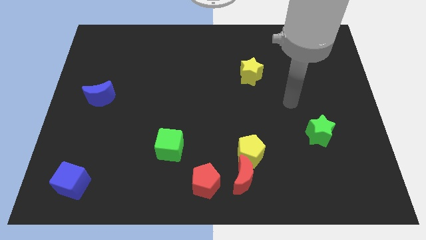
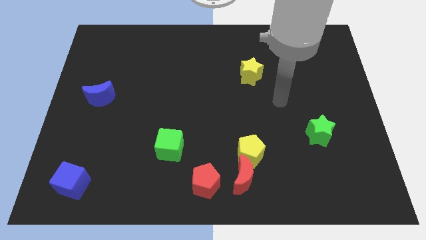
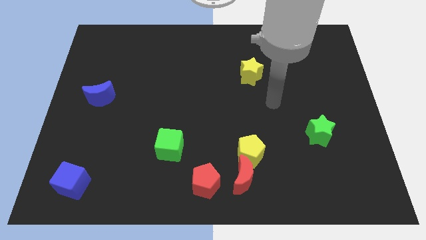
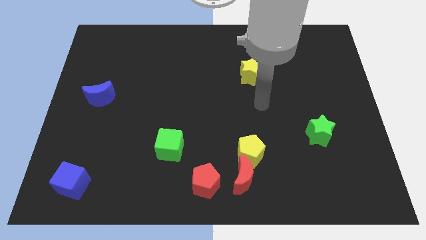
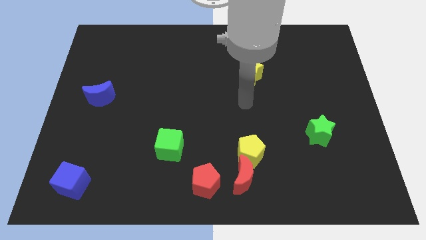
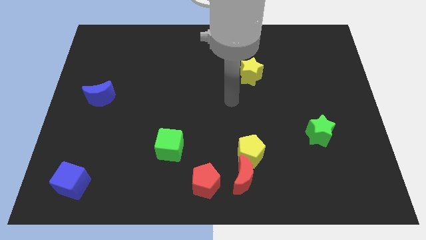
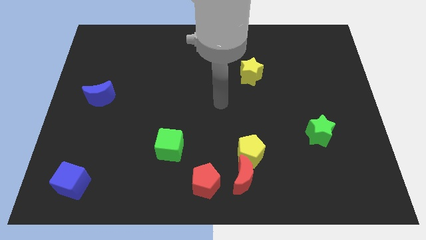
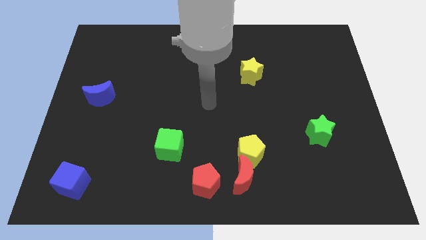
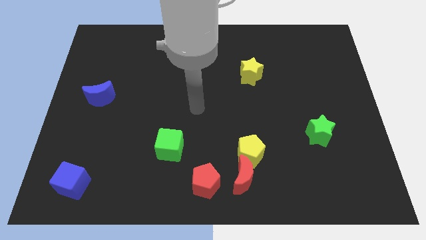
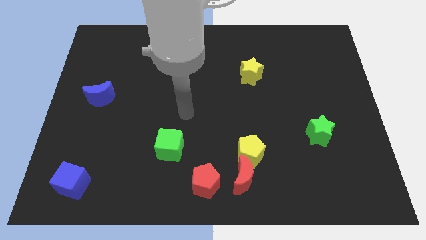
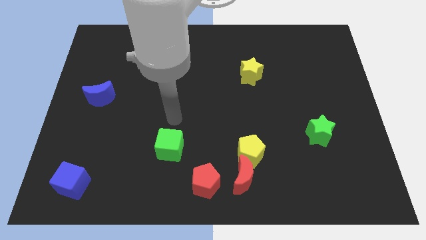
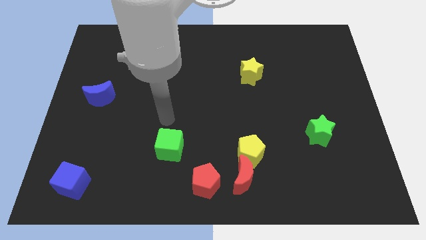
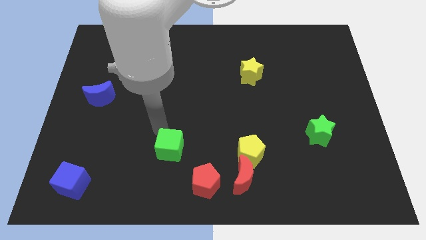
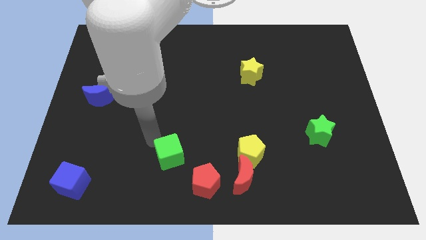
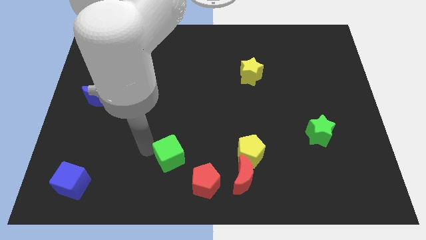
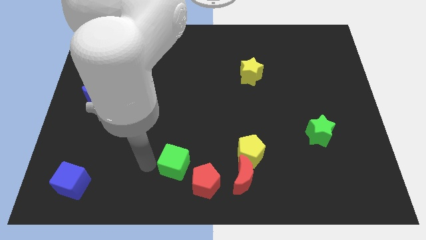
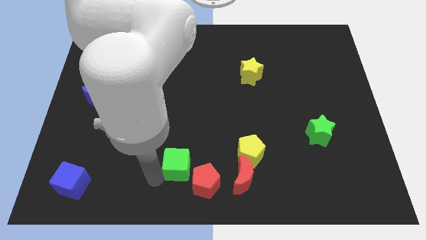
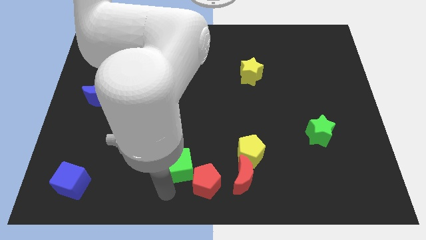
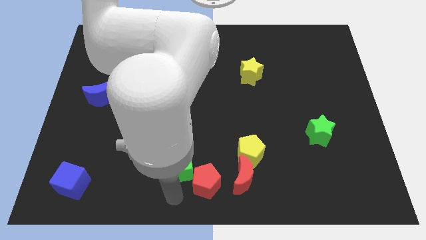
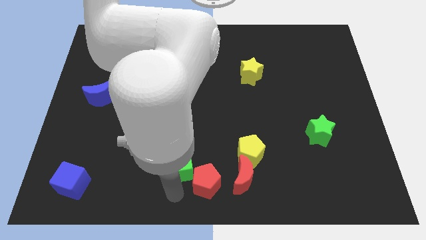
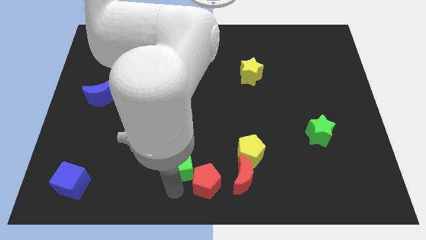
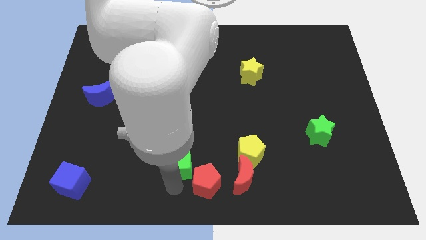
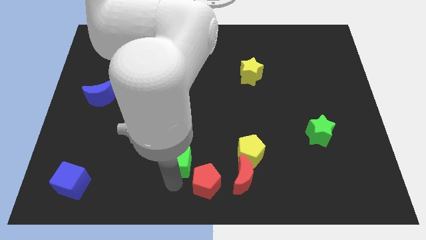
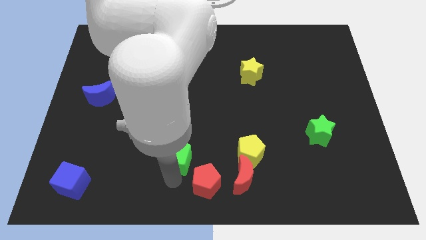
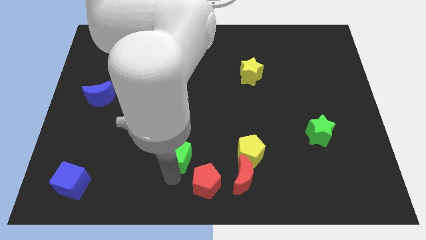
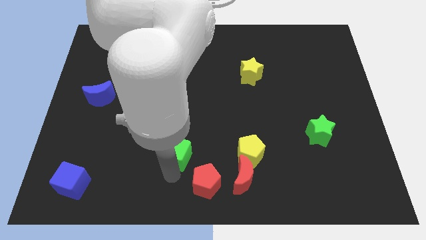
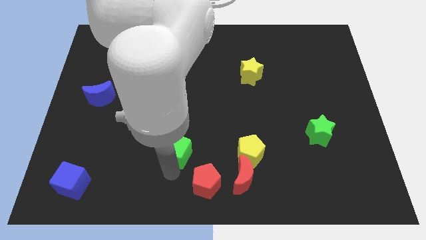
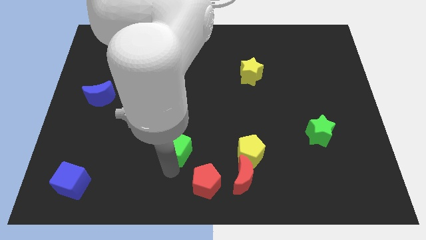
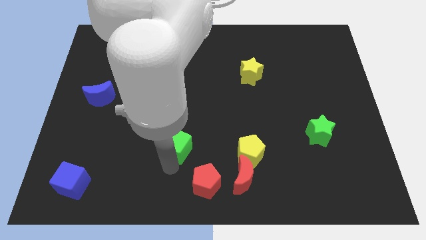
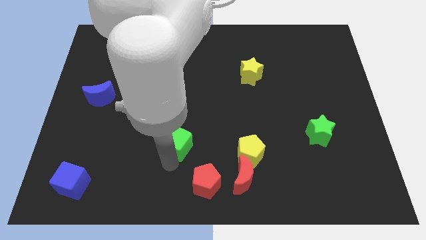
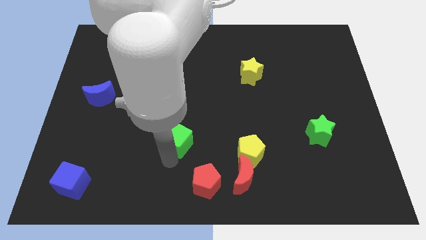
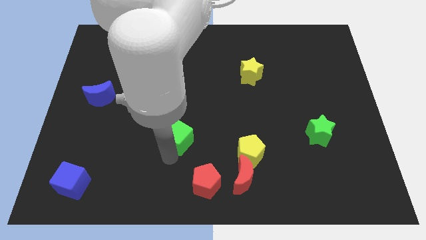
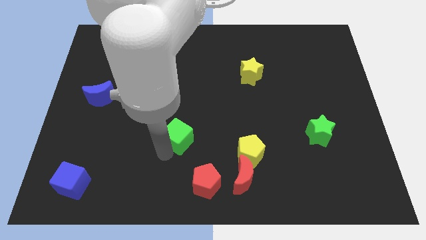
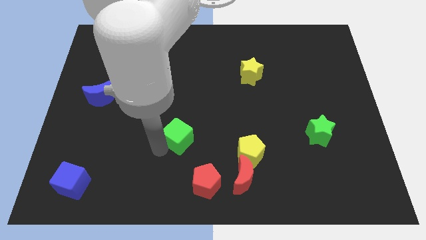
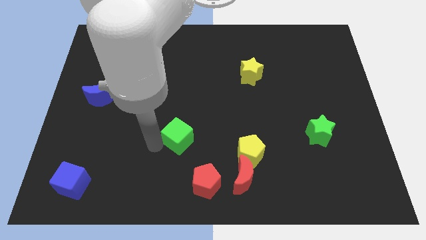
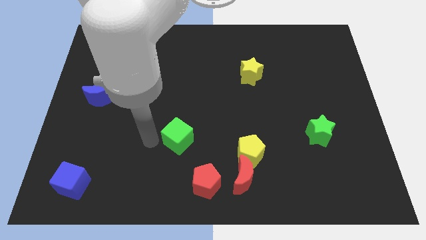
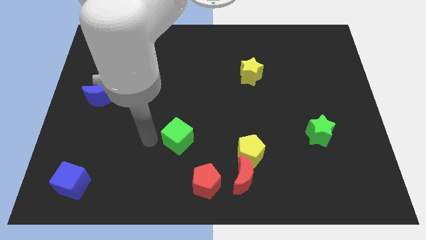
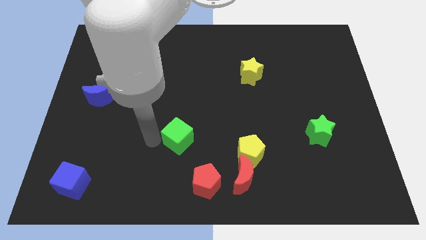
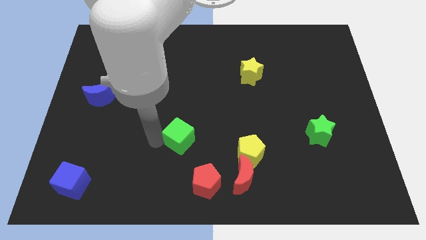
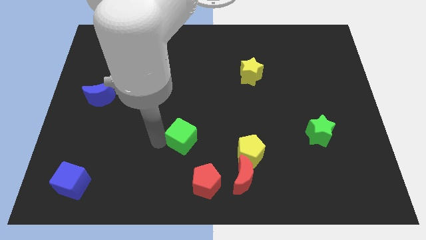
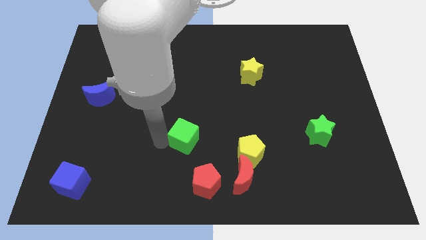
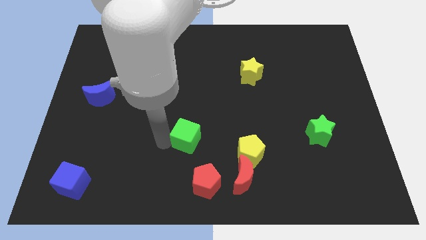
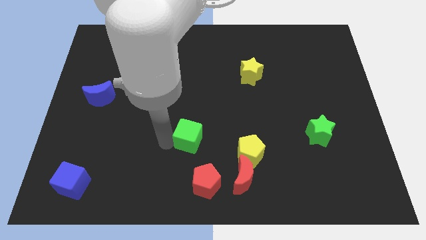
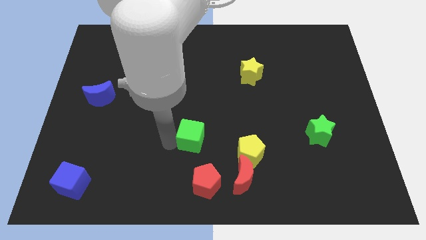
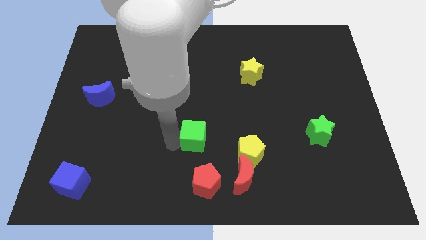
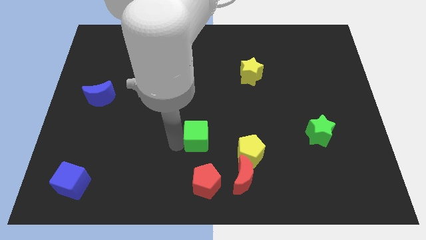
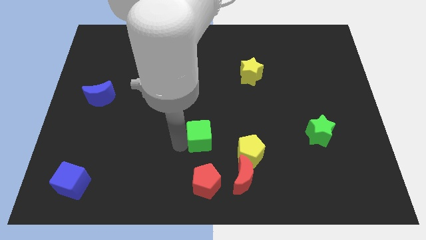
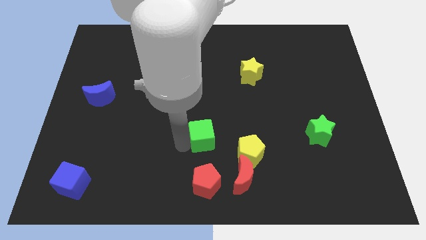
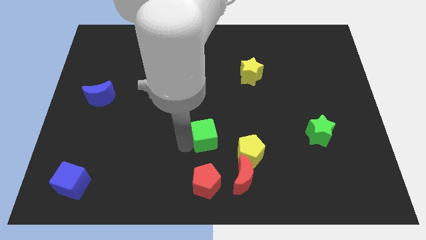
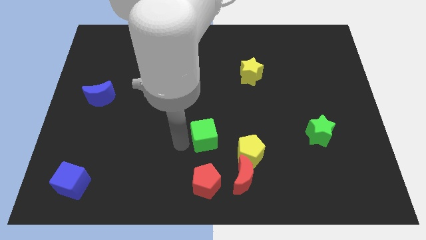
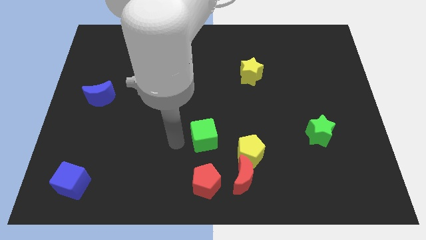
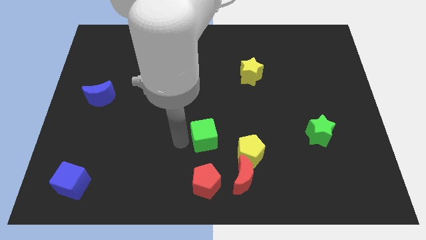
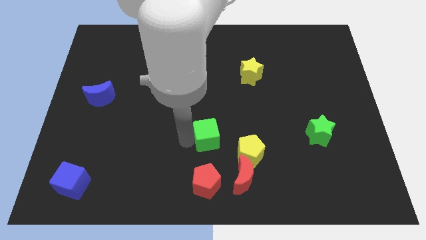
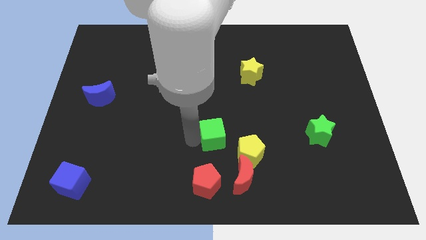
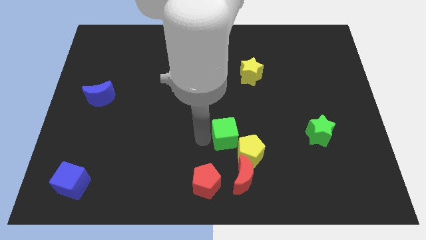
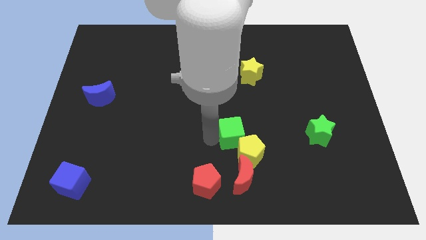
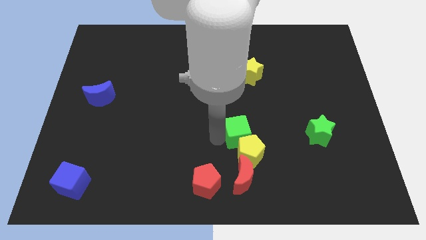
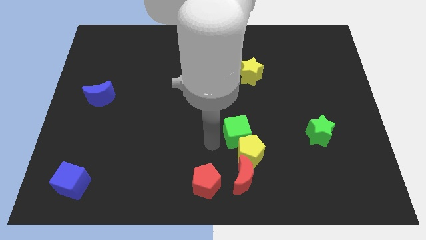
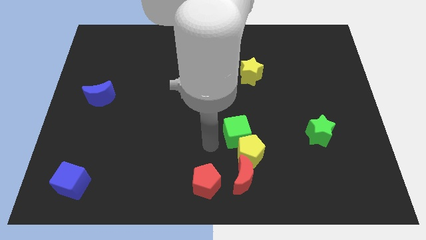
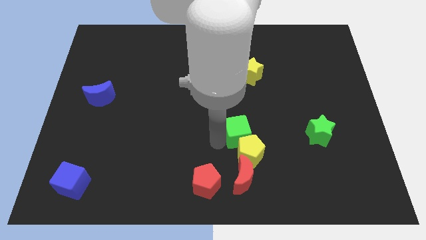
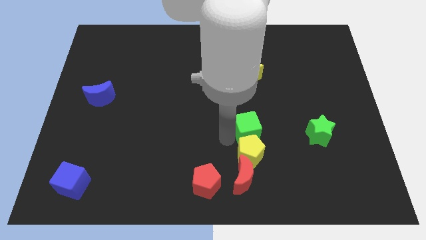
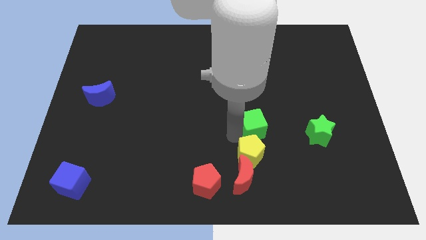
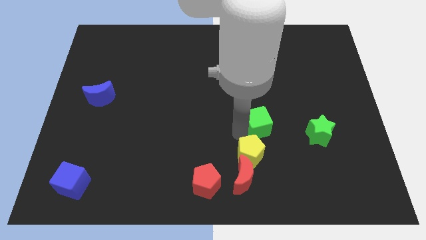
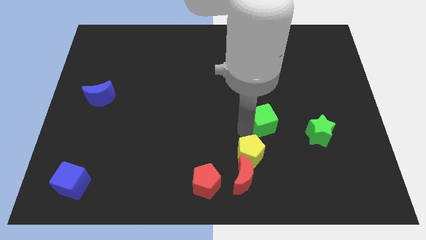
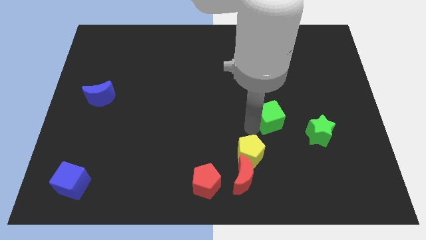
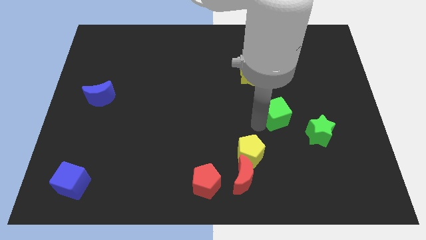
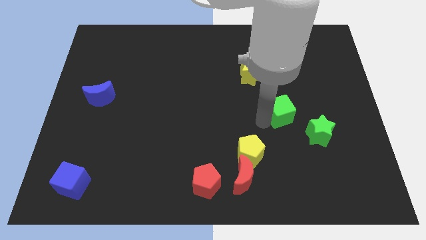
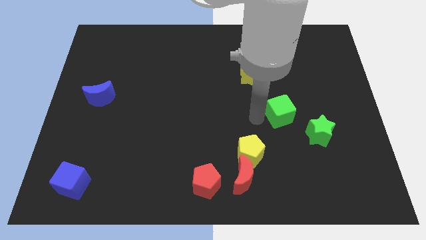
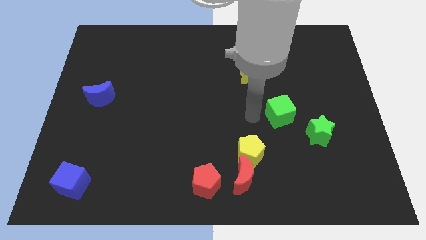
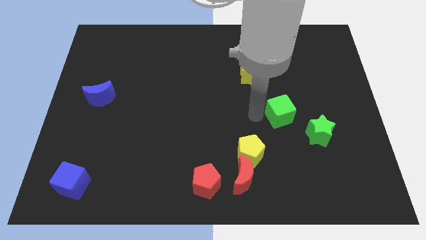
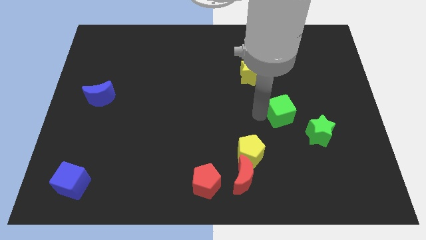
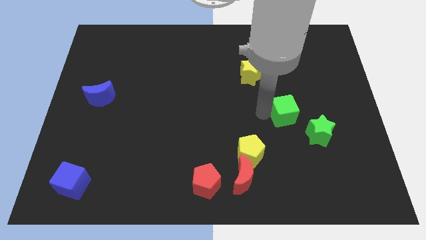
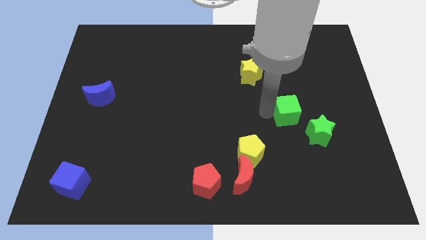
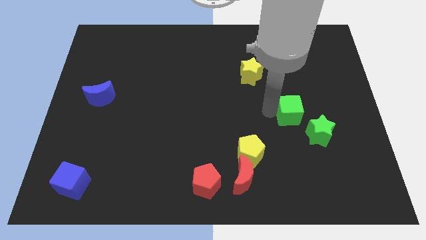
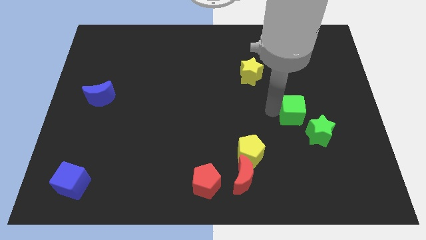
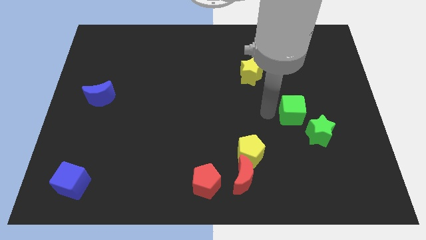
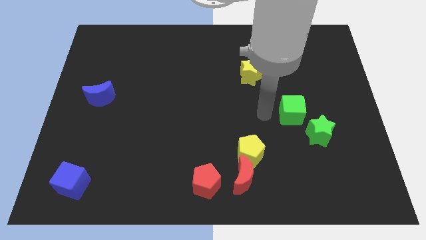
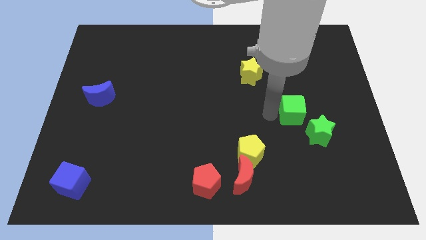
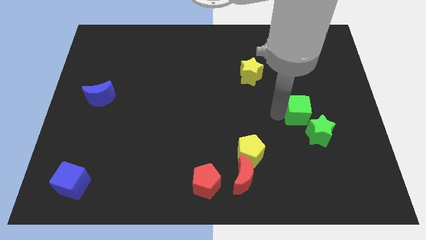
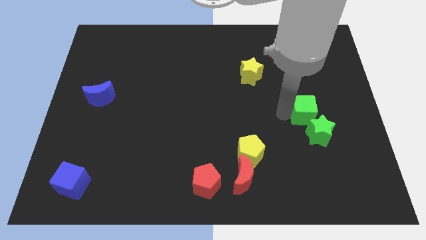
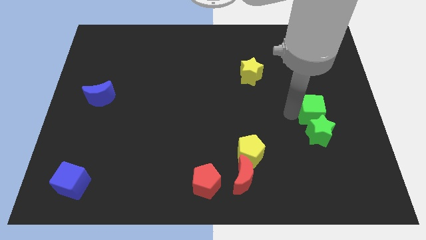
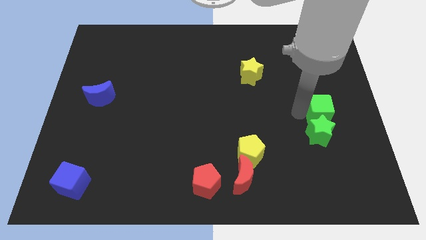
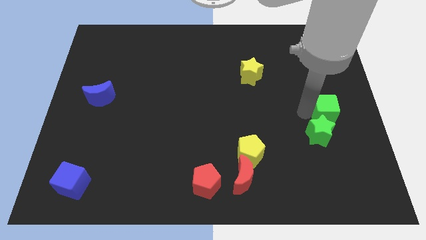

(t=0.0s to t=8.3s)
put the green cube to the center right
